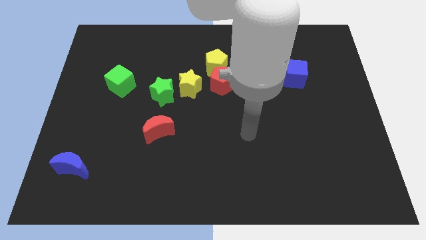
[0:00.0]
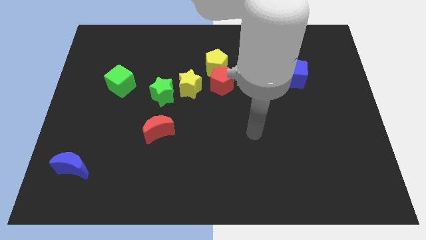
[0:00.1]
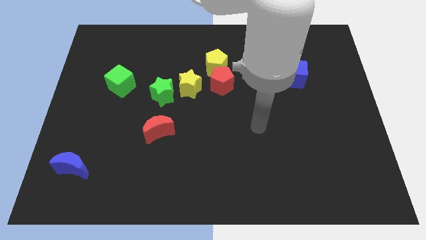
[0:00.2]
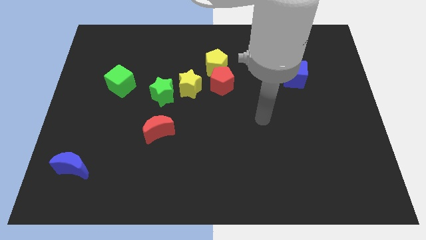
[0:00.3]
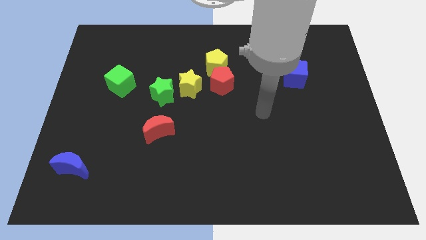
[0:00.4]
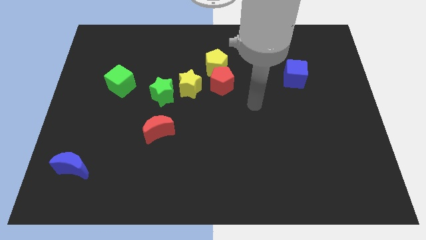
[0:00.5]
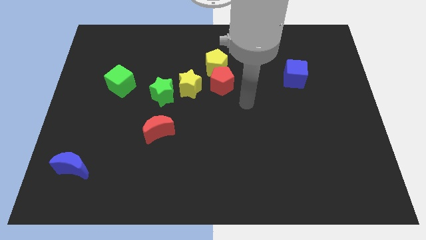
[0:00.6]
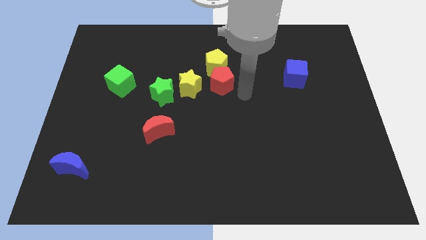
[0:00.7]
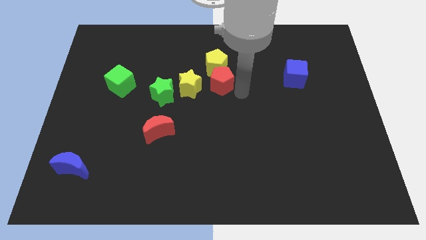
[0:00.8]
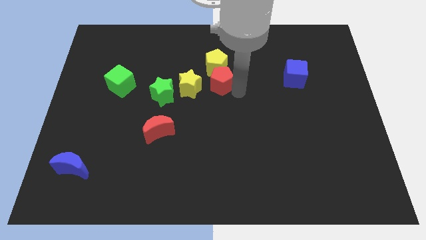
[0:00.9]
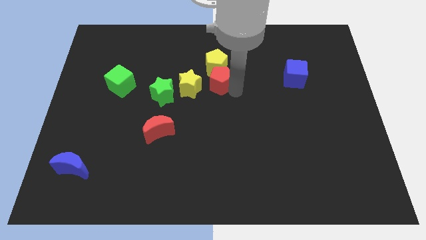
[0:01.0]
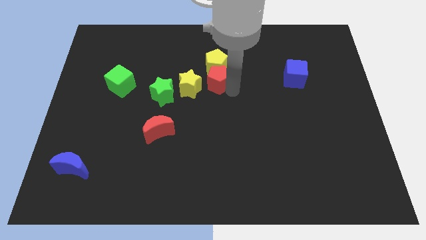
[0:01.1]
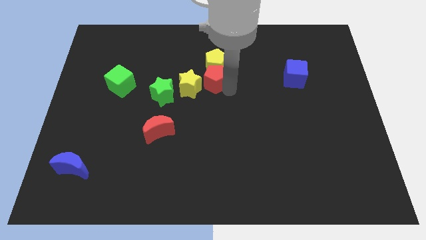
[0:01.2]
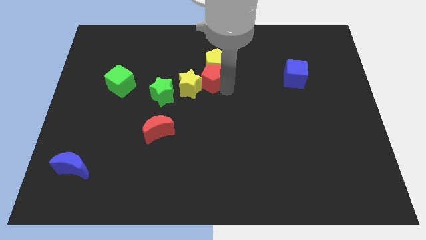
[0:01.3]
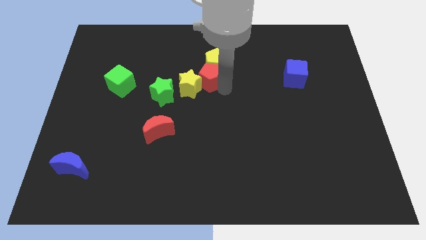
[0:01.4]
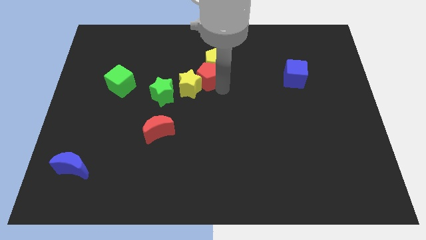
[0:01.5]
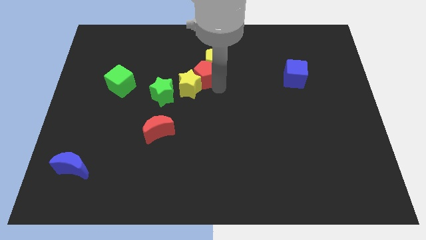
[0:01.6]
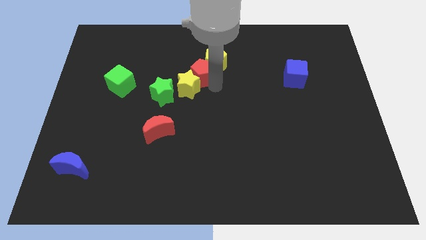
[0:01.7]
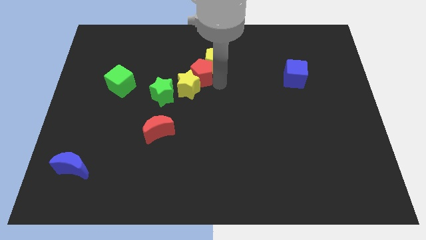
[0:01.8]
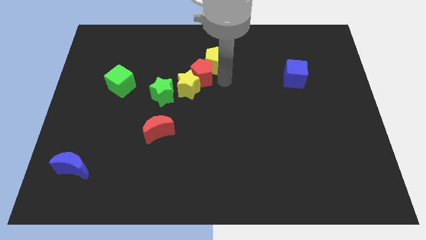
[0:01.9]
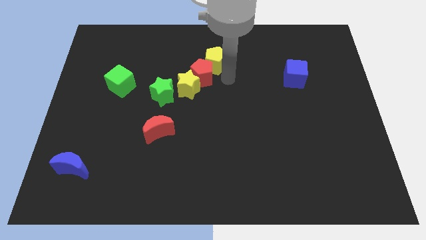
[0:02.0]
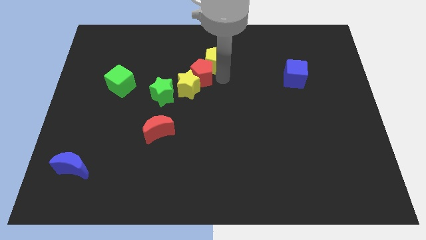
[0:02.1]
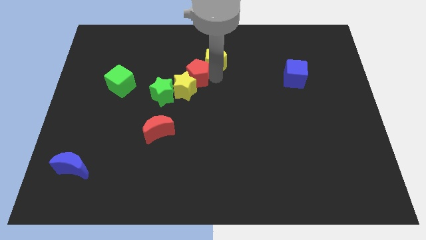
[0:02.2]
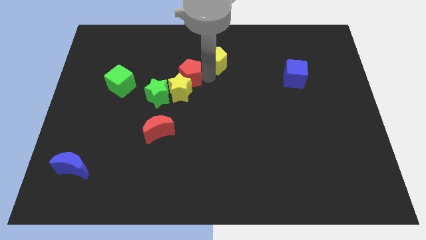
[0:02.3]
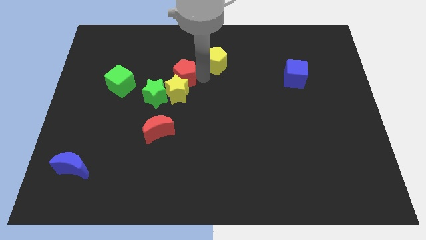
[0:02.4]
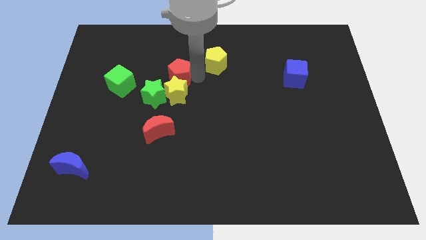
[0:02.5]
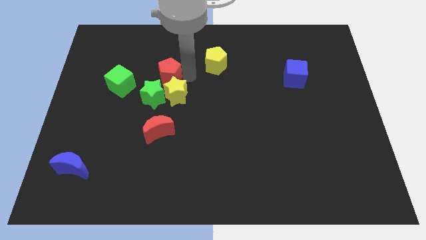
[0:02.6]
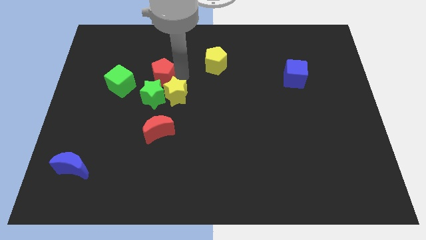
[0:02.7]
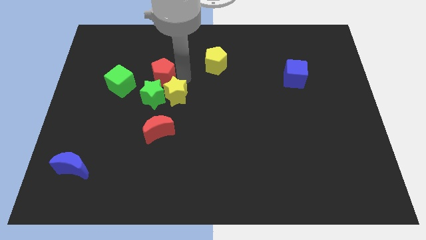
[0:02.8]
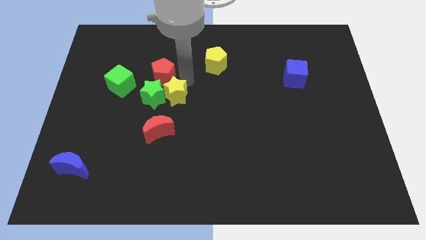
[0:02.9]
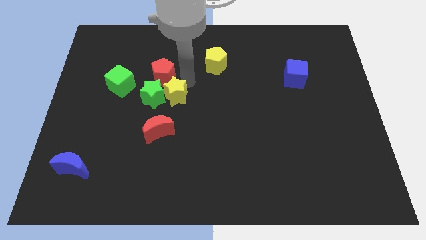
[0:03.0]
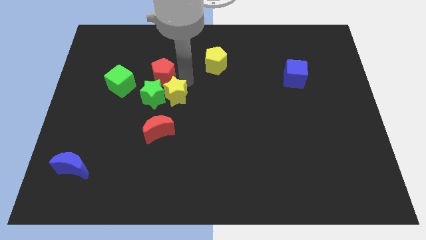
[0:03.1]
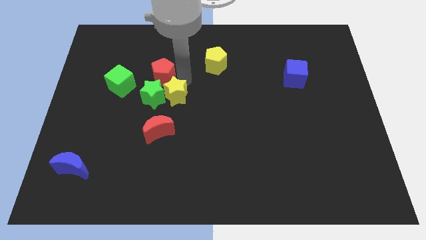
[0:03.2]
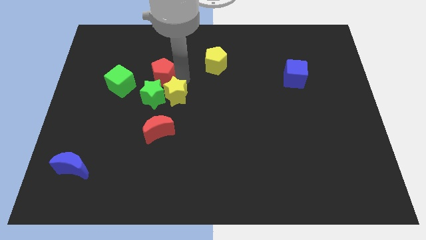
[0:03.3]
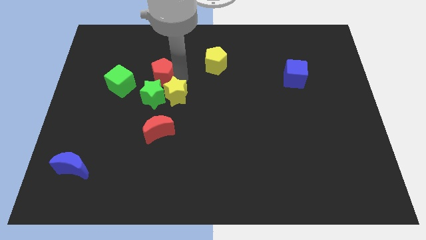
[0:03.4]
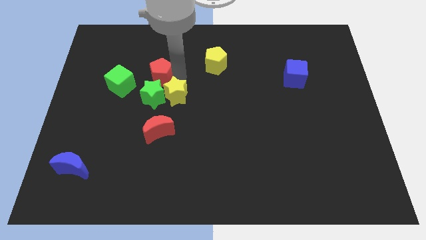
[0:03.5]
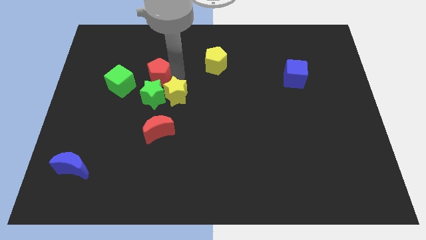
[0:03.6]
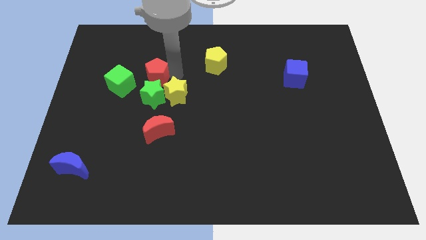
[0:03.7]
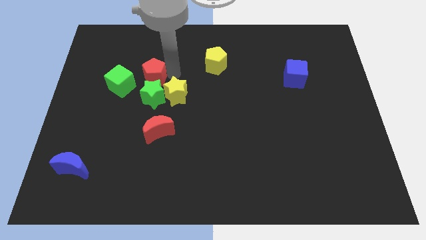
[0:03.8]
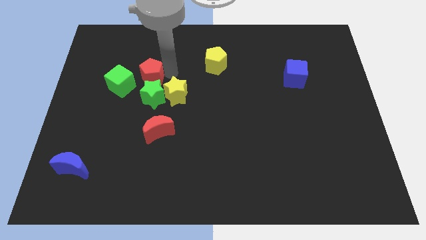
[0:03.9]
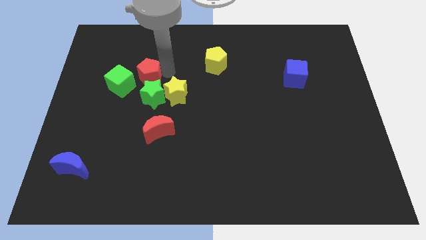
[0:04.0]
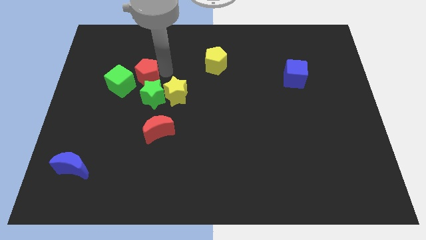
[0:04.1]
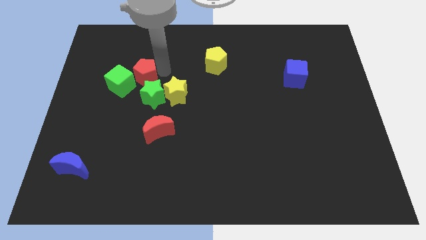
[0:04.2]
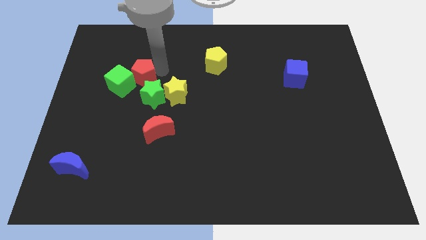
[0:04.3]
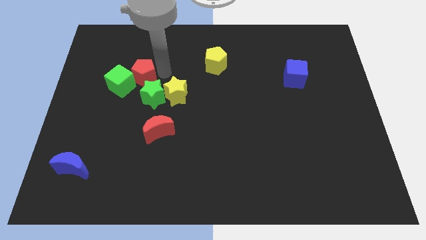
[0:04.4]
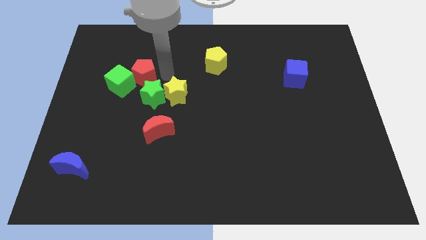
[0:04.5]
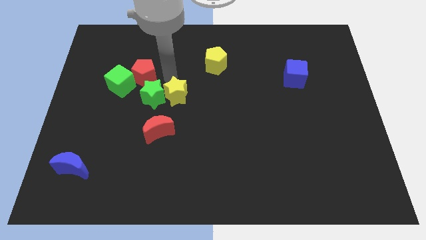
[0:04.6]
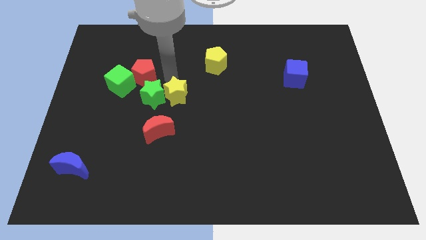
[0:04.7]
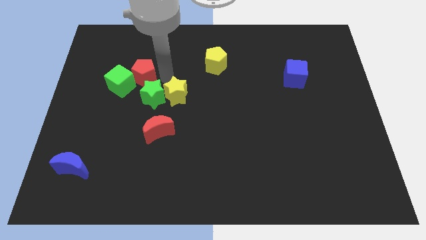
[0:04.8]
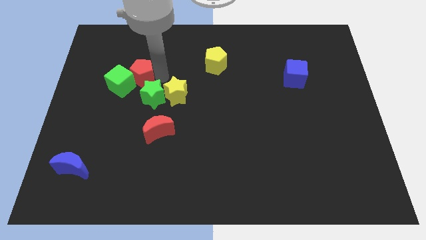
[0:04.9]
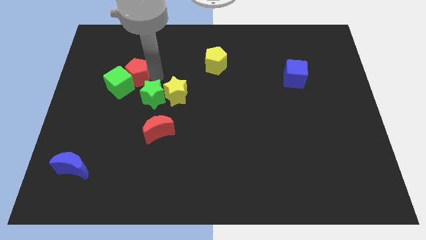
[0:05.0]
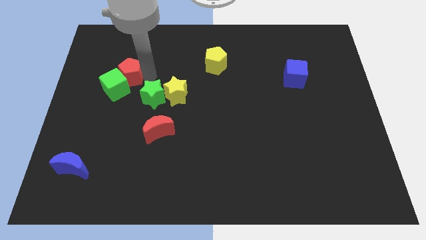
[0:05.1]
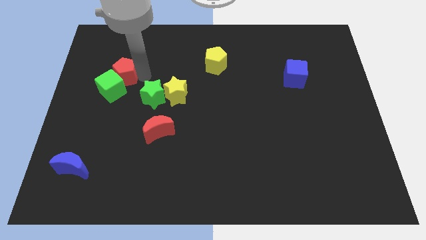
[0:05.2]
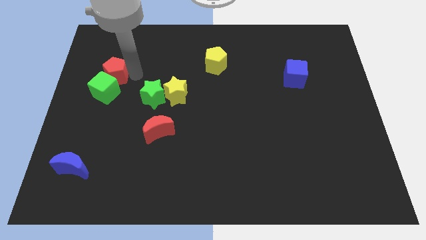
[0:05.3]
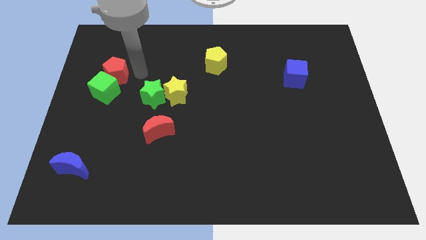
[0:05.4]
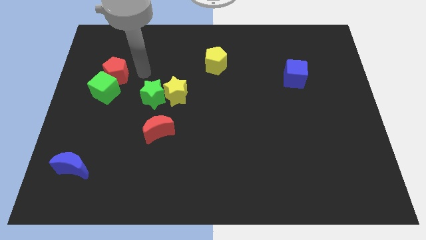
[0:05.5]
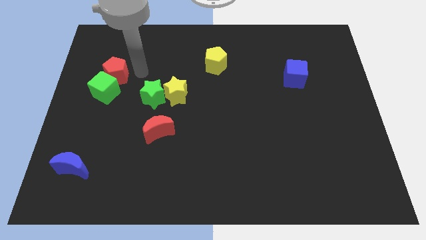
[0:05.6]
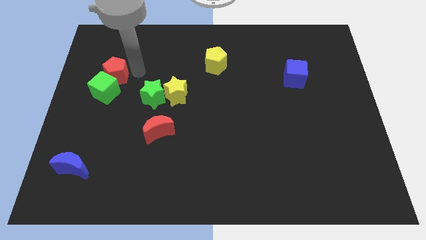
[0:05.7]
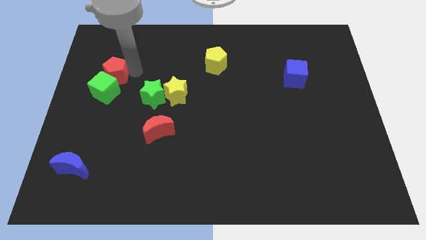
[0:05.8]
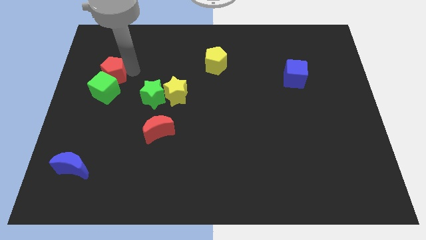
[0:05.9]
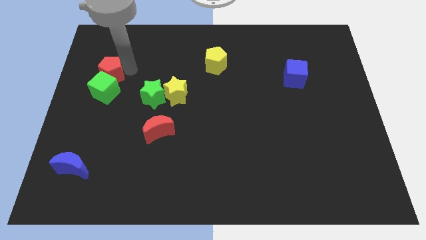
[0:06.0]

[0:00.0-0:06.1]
move the red pentagon to the top left side of the green cube

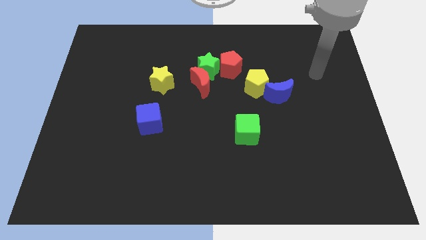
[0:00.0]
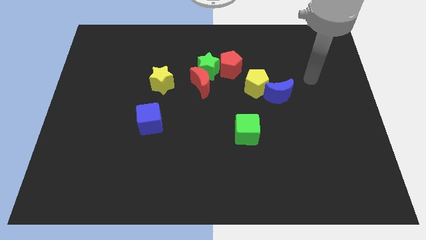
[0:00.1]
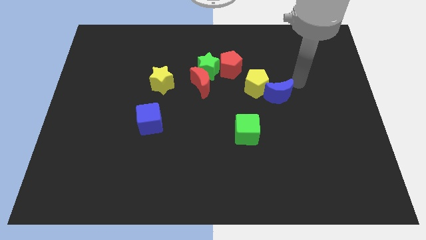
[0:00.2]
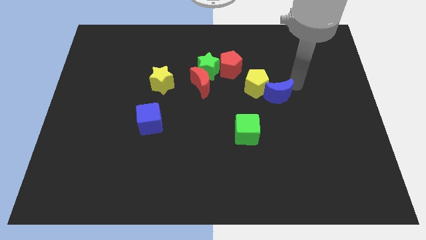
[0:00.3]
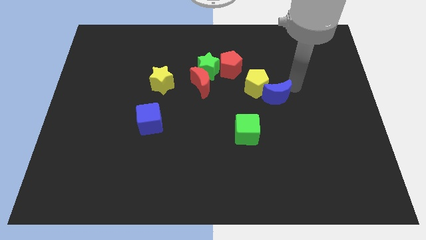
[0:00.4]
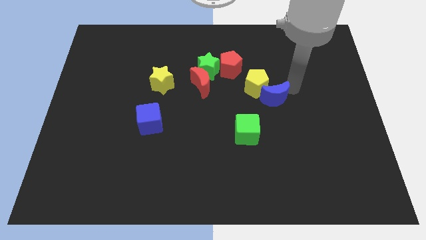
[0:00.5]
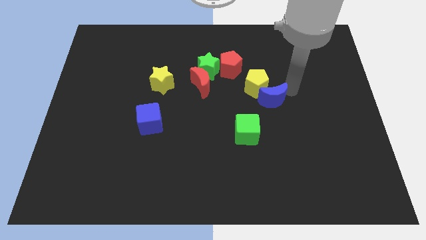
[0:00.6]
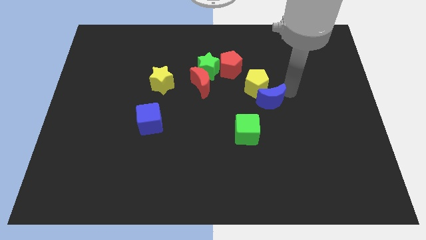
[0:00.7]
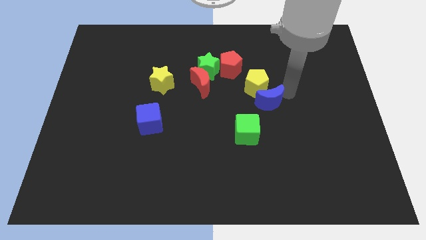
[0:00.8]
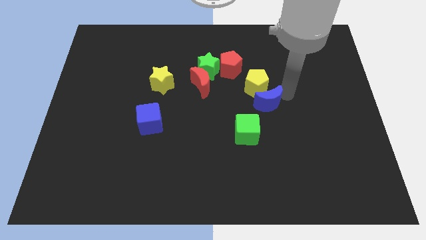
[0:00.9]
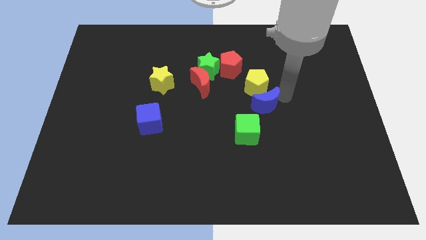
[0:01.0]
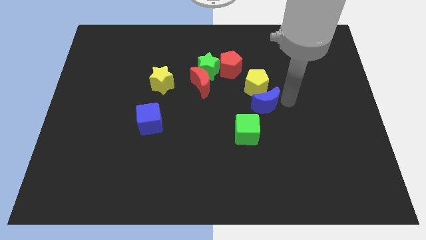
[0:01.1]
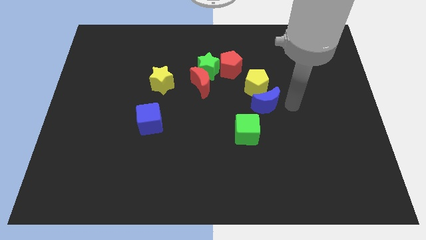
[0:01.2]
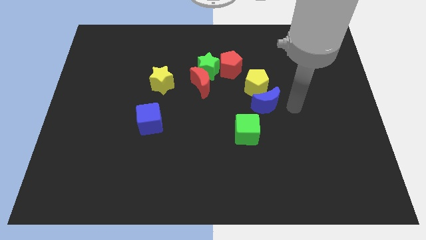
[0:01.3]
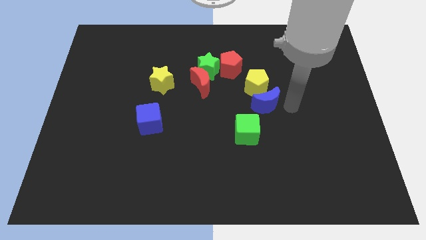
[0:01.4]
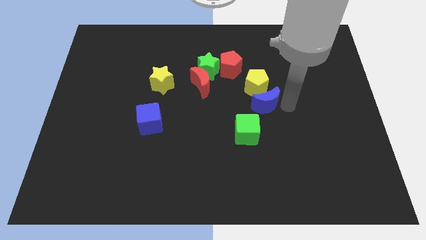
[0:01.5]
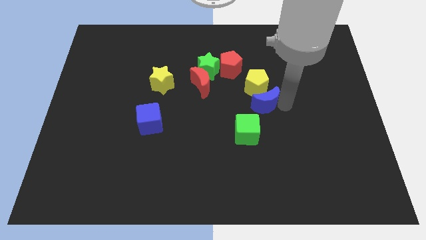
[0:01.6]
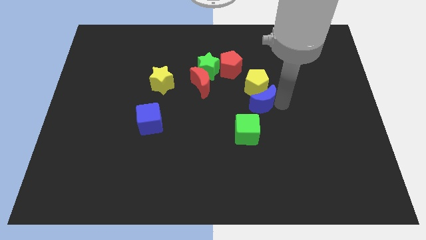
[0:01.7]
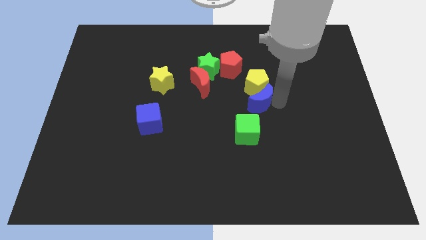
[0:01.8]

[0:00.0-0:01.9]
move the blue moon diagonally down and to the left of the yellow pentagon
